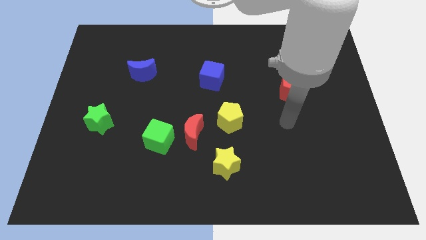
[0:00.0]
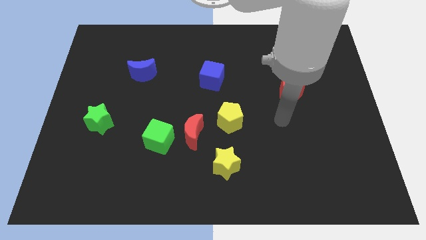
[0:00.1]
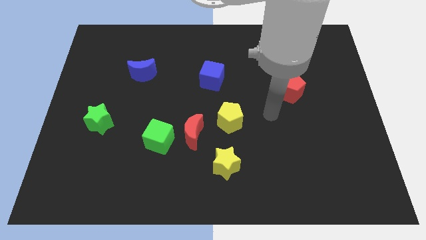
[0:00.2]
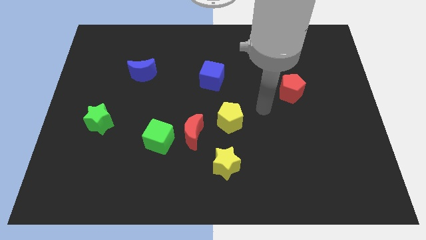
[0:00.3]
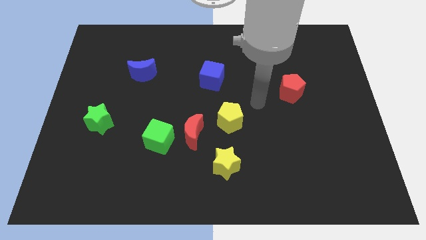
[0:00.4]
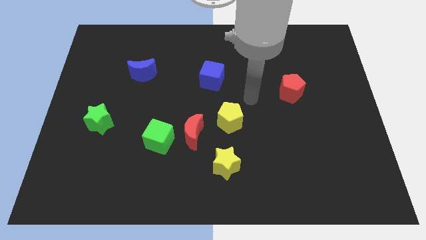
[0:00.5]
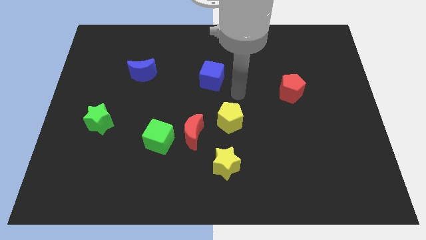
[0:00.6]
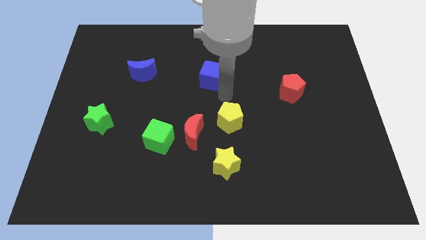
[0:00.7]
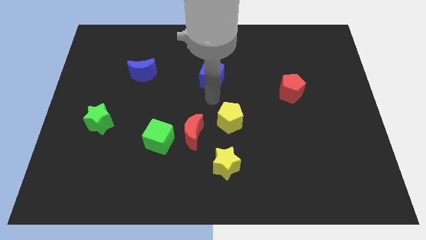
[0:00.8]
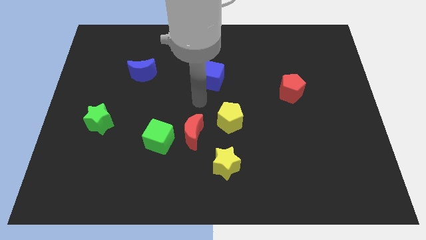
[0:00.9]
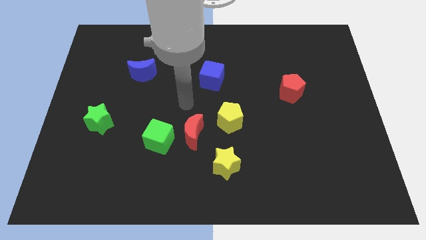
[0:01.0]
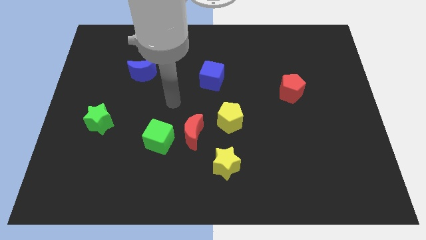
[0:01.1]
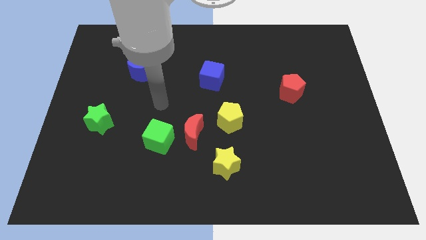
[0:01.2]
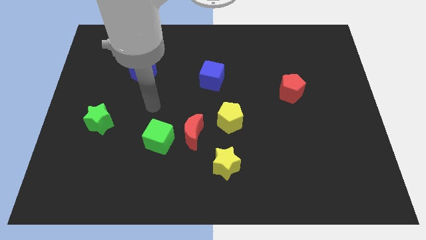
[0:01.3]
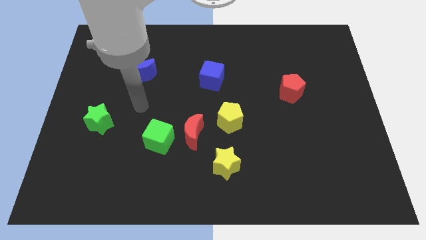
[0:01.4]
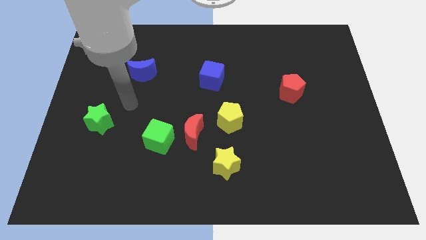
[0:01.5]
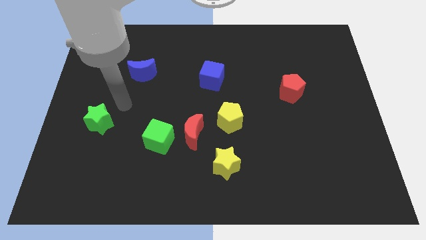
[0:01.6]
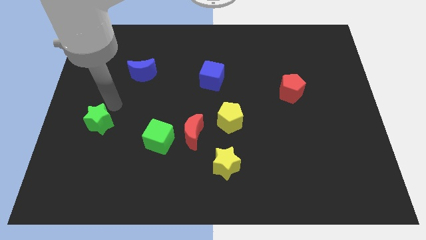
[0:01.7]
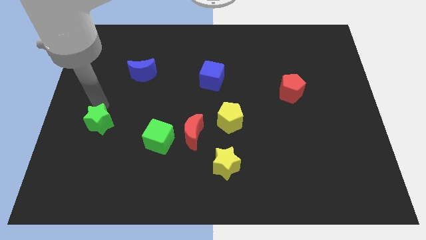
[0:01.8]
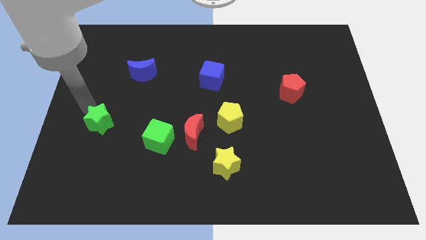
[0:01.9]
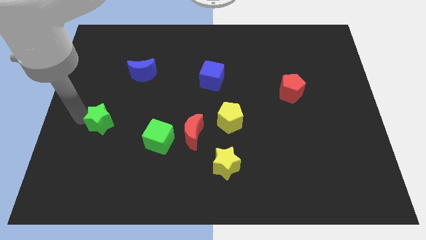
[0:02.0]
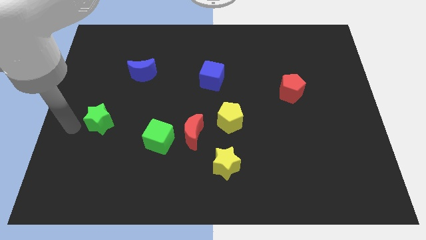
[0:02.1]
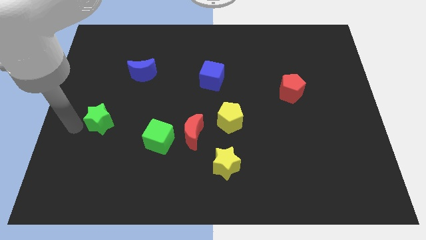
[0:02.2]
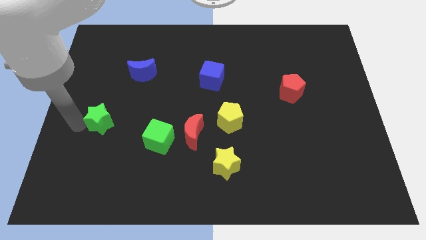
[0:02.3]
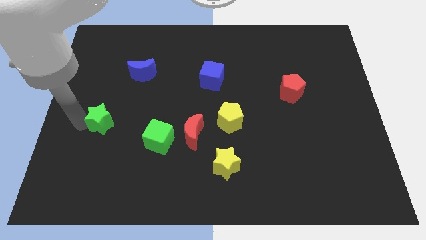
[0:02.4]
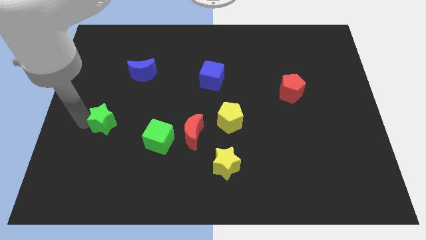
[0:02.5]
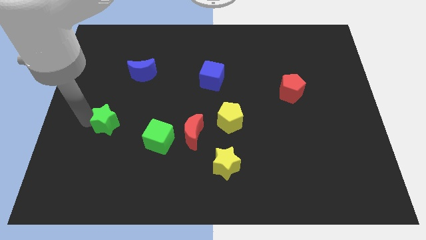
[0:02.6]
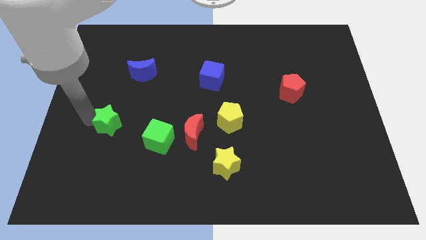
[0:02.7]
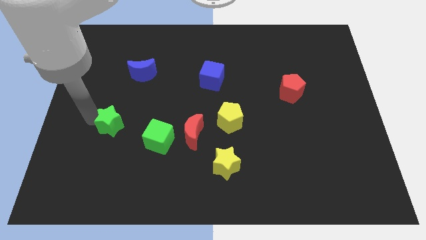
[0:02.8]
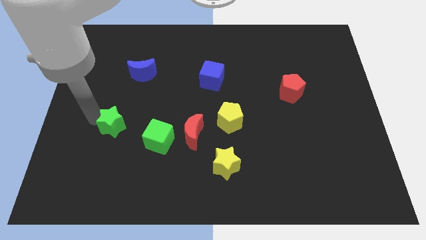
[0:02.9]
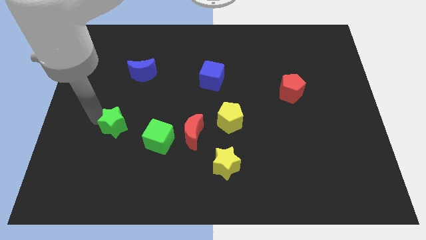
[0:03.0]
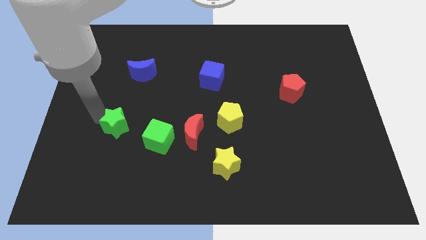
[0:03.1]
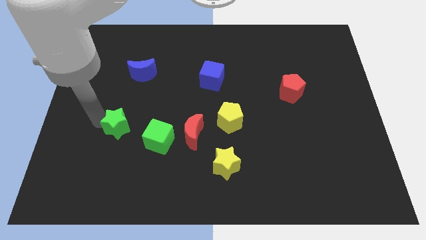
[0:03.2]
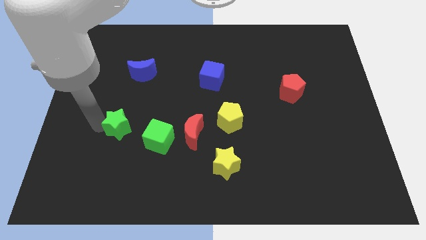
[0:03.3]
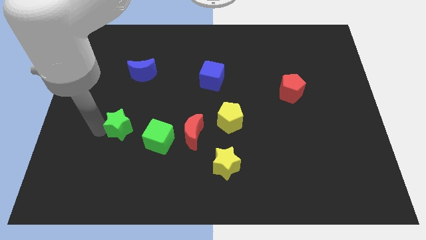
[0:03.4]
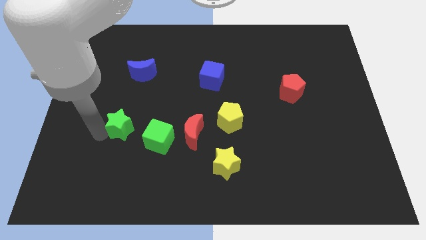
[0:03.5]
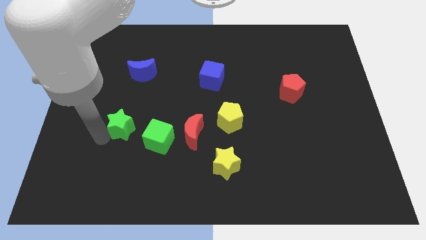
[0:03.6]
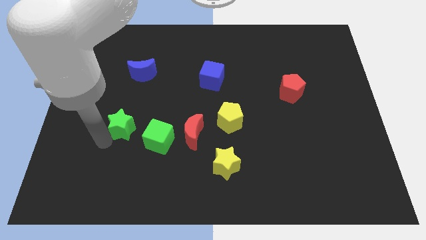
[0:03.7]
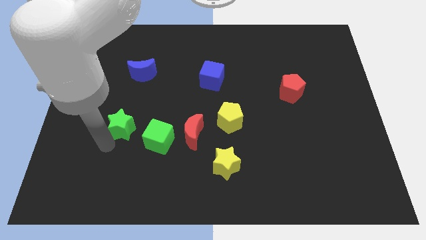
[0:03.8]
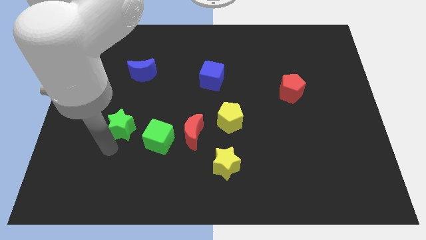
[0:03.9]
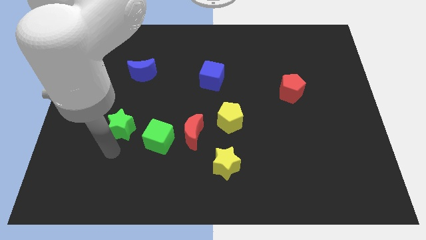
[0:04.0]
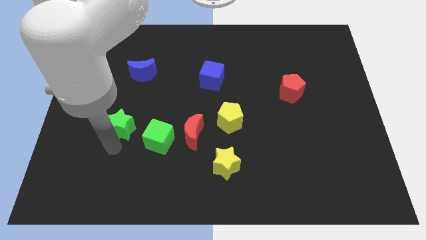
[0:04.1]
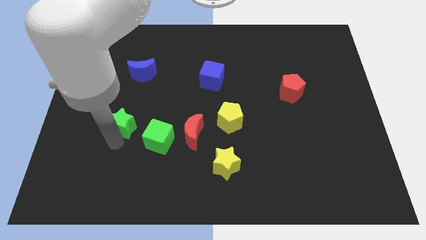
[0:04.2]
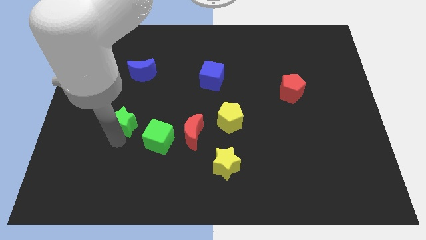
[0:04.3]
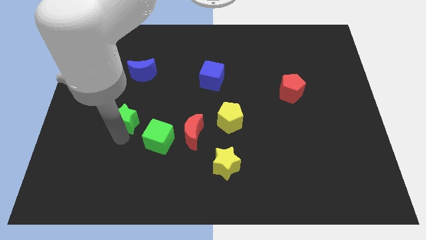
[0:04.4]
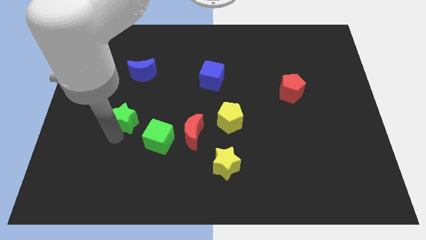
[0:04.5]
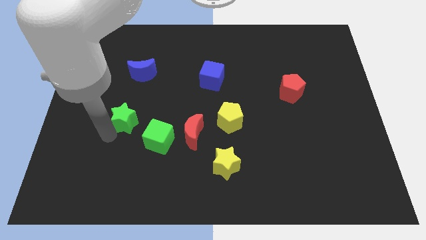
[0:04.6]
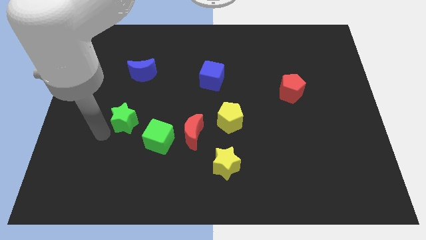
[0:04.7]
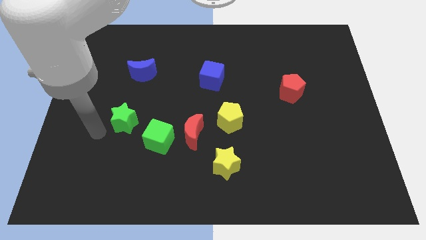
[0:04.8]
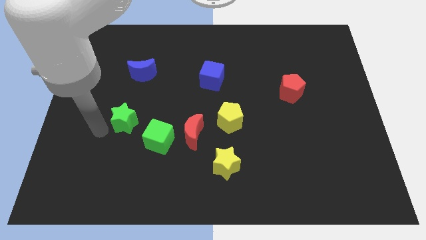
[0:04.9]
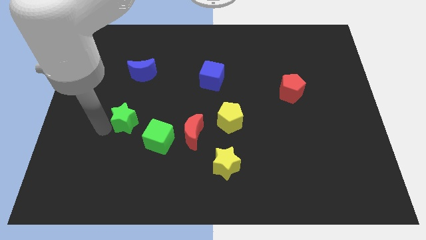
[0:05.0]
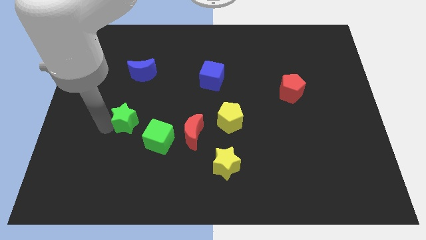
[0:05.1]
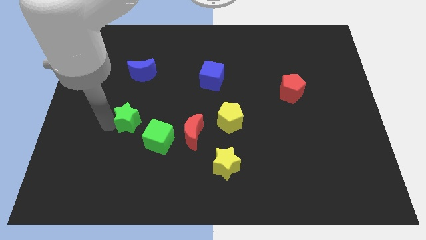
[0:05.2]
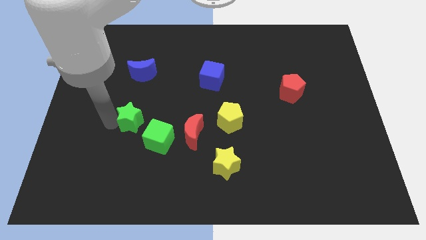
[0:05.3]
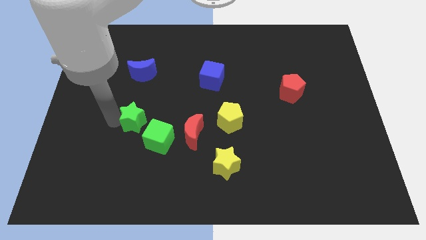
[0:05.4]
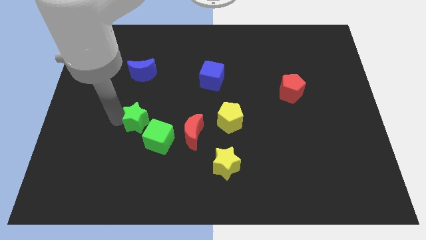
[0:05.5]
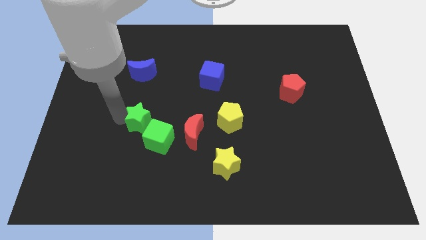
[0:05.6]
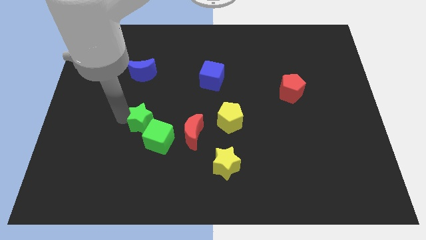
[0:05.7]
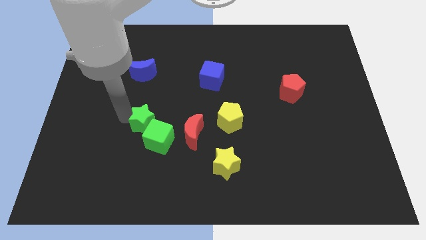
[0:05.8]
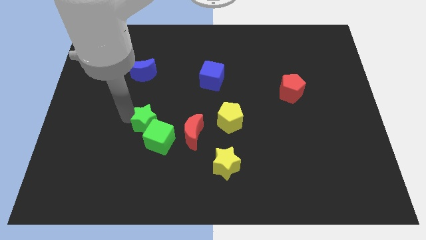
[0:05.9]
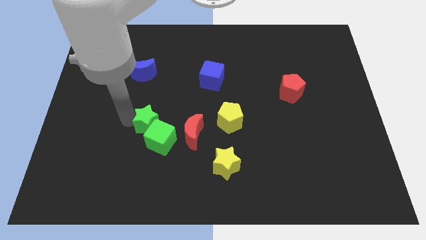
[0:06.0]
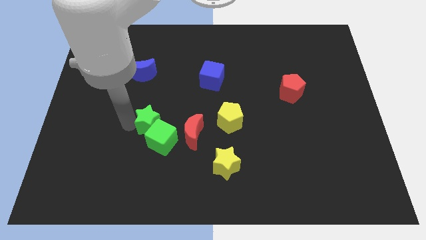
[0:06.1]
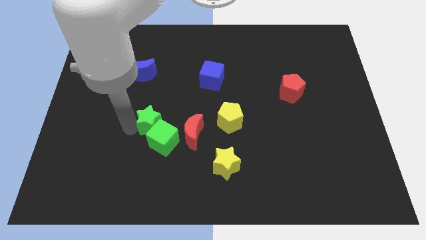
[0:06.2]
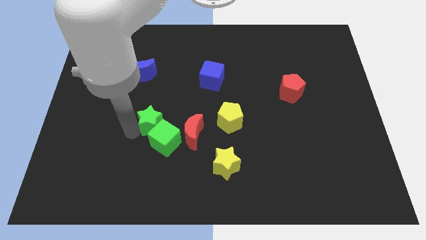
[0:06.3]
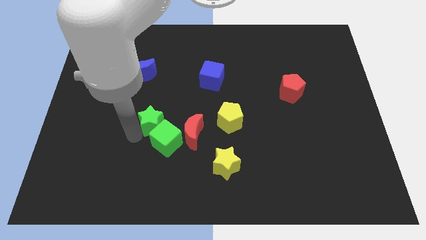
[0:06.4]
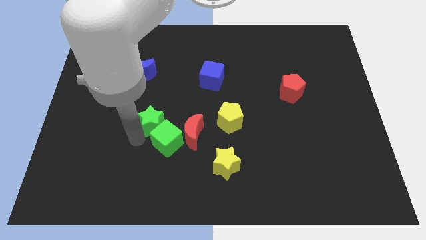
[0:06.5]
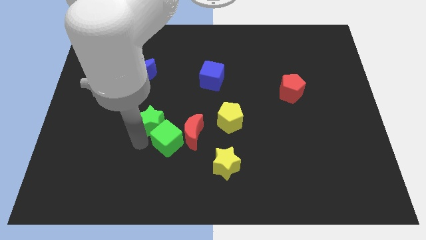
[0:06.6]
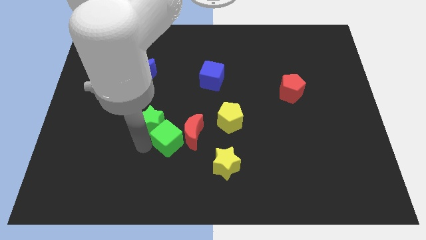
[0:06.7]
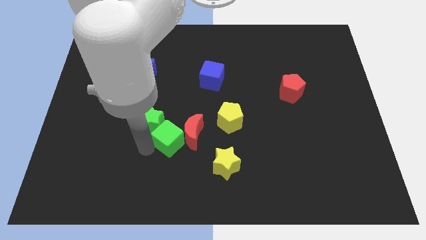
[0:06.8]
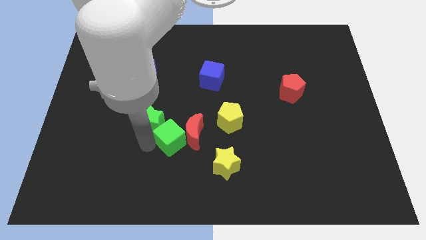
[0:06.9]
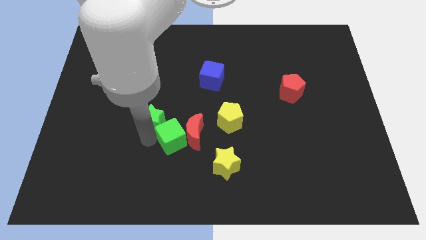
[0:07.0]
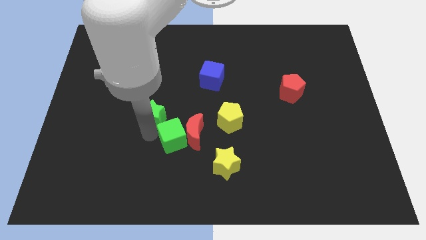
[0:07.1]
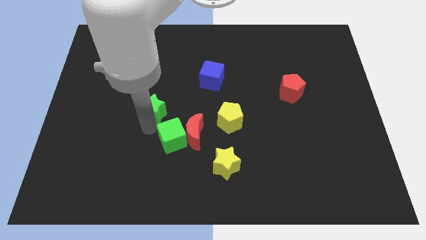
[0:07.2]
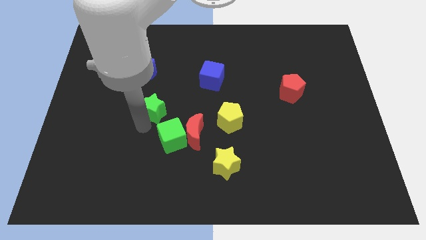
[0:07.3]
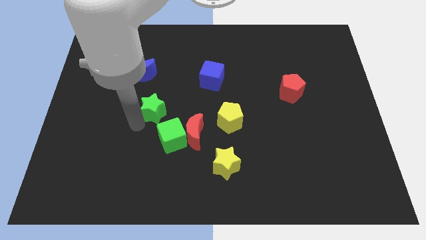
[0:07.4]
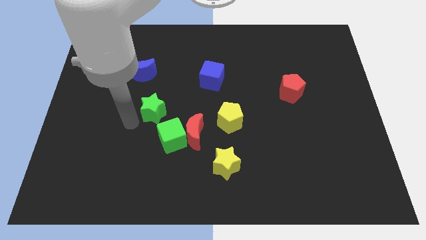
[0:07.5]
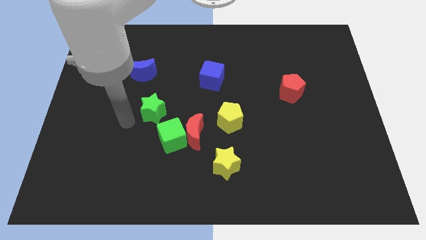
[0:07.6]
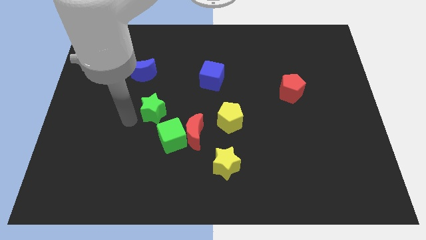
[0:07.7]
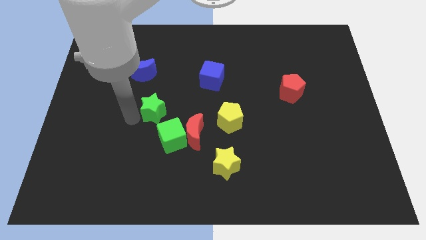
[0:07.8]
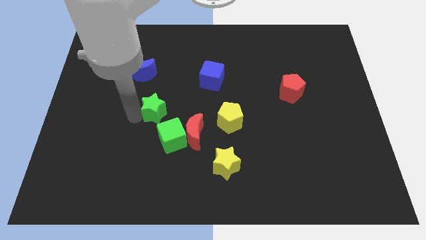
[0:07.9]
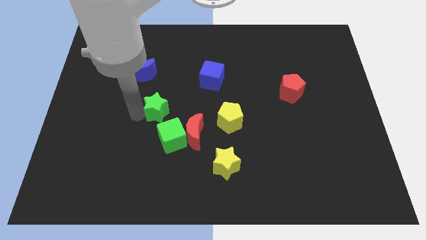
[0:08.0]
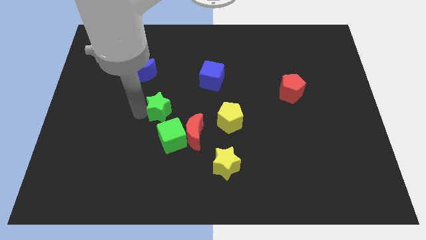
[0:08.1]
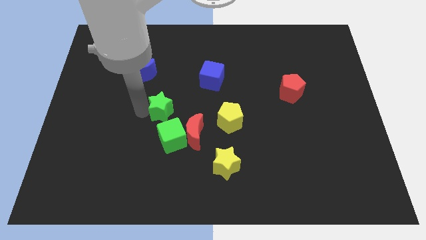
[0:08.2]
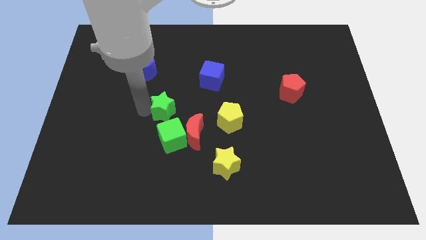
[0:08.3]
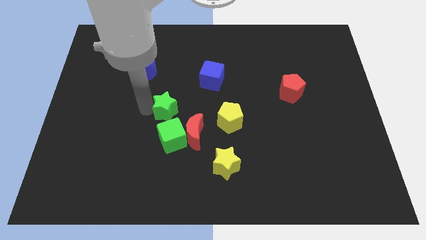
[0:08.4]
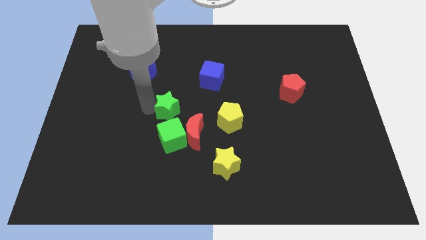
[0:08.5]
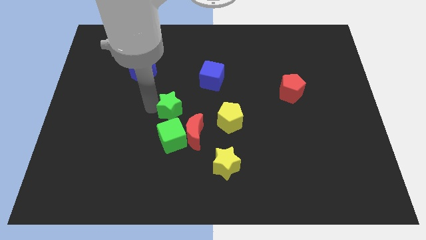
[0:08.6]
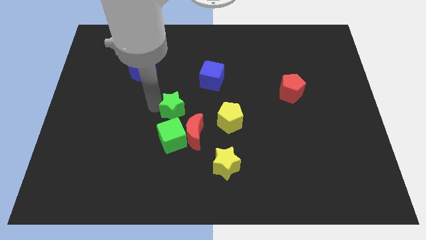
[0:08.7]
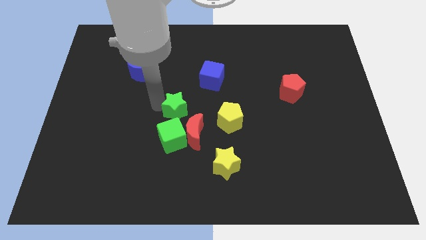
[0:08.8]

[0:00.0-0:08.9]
put the green star diagonally down and to the left of the blue cube
